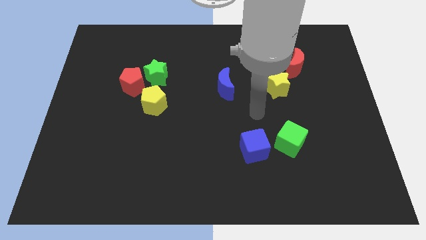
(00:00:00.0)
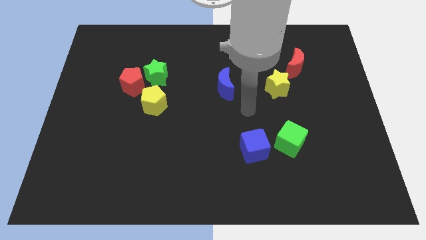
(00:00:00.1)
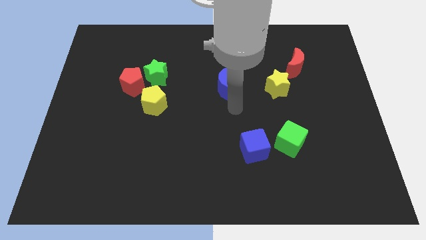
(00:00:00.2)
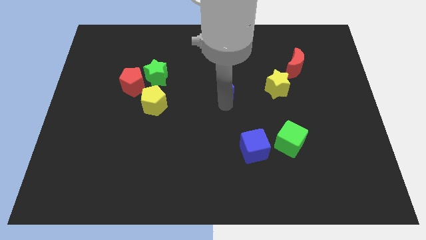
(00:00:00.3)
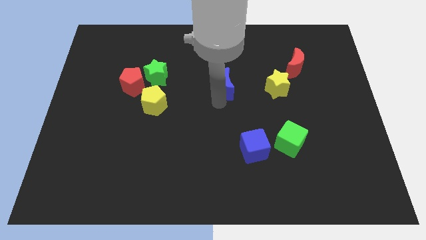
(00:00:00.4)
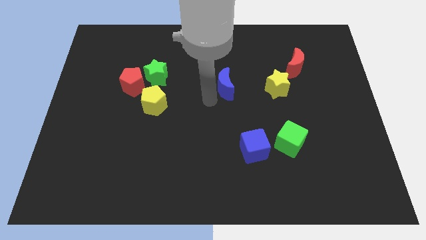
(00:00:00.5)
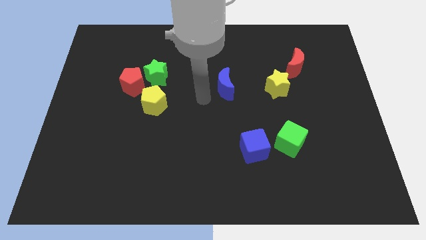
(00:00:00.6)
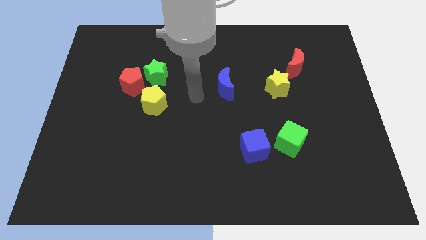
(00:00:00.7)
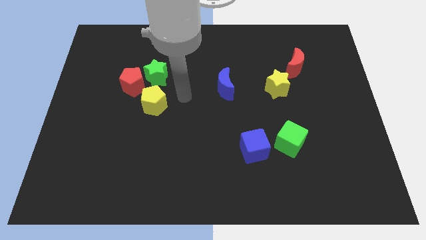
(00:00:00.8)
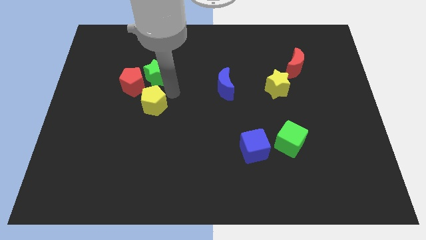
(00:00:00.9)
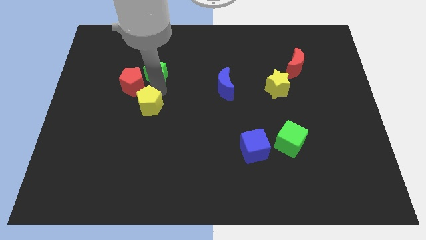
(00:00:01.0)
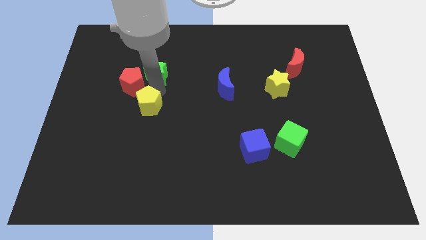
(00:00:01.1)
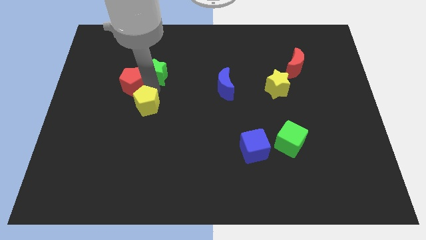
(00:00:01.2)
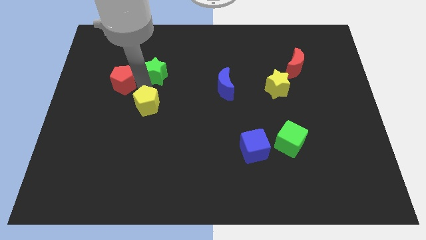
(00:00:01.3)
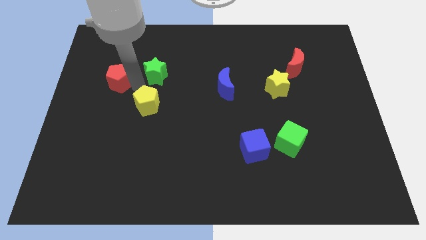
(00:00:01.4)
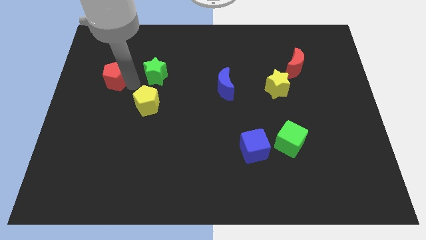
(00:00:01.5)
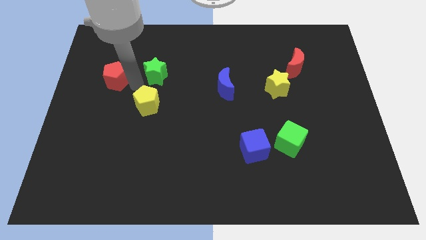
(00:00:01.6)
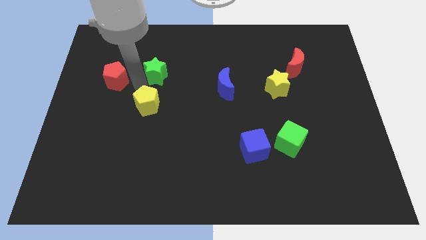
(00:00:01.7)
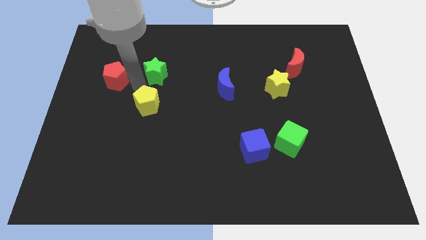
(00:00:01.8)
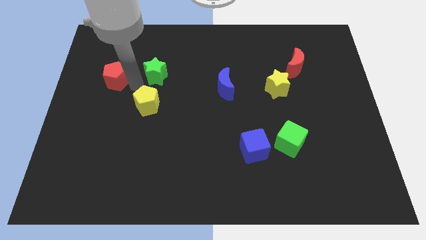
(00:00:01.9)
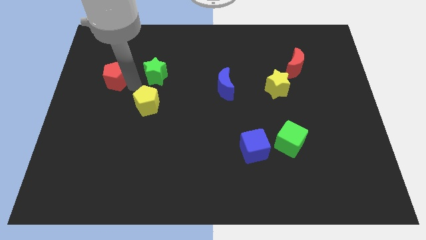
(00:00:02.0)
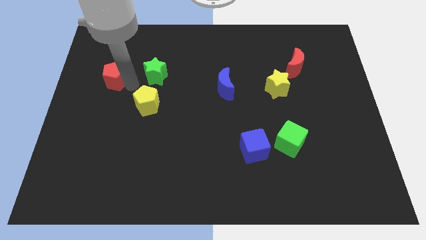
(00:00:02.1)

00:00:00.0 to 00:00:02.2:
pull the red pentagon apart from the green star and yellow pentagon

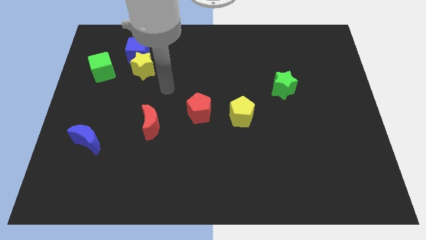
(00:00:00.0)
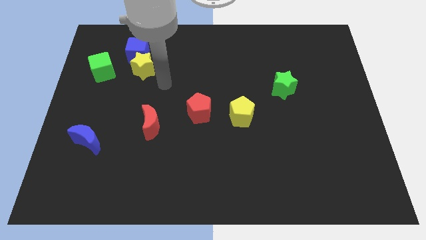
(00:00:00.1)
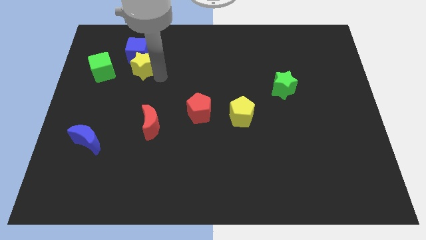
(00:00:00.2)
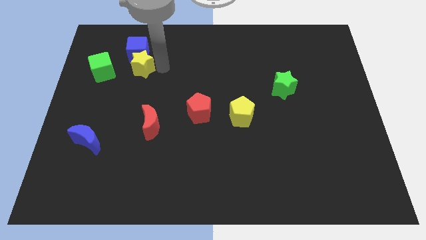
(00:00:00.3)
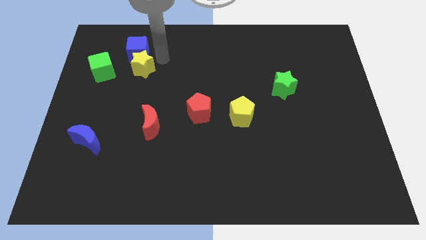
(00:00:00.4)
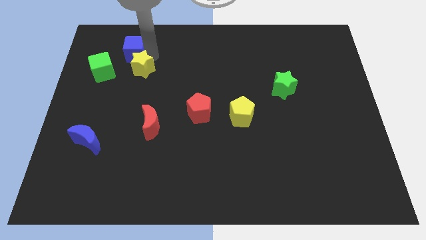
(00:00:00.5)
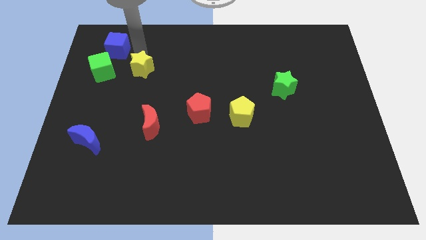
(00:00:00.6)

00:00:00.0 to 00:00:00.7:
separate the yellow star from the blue cube

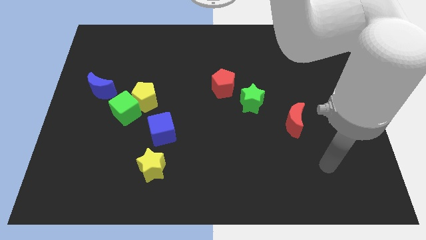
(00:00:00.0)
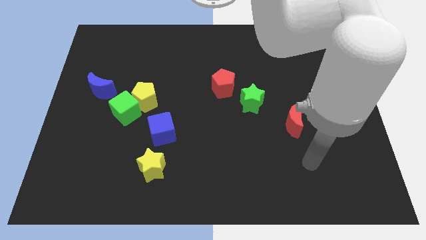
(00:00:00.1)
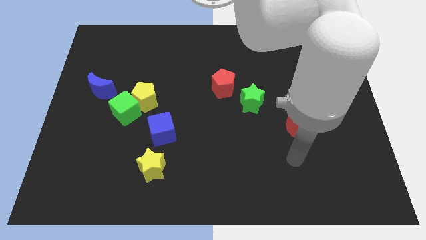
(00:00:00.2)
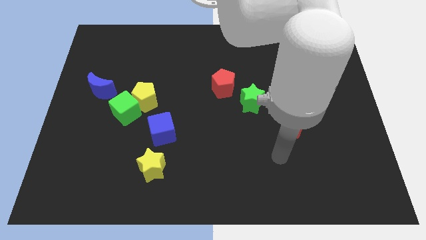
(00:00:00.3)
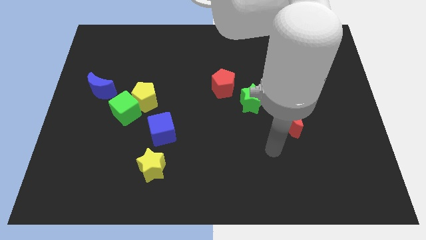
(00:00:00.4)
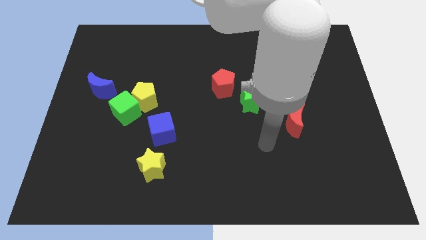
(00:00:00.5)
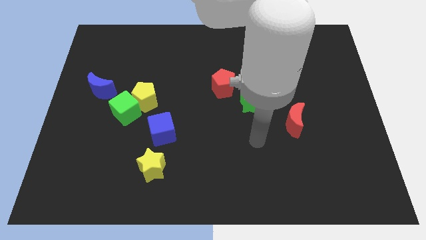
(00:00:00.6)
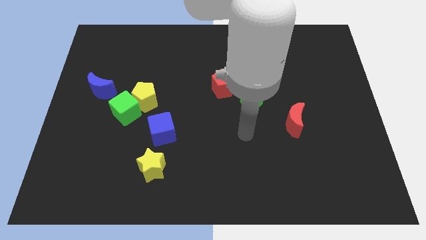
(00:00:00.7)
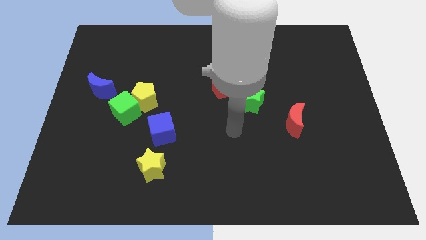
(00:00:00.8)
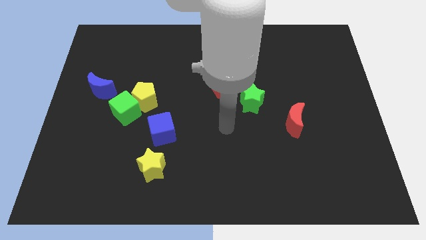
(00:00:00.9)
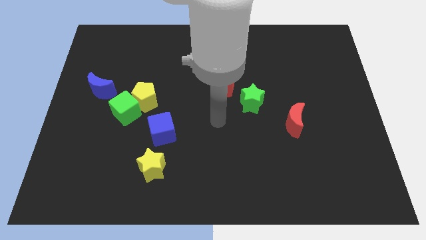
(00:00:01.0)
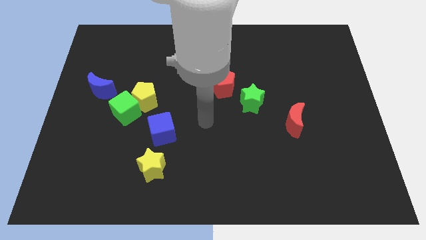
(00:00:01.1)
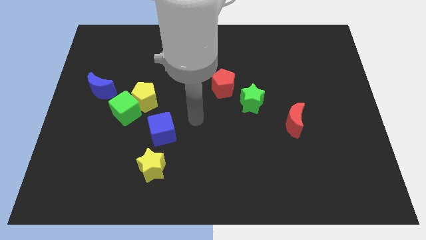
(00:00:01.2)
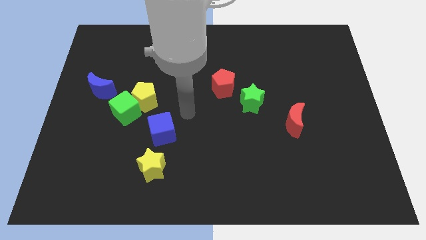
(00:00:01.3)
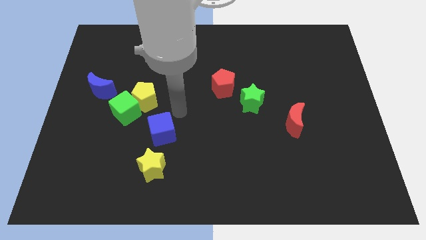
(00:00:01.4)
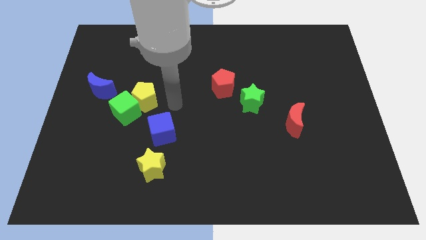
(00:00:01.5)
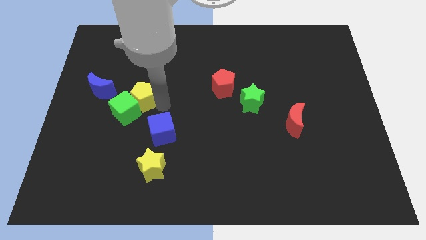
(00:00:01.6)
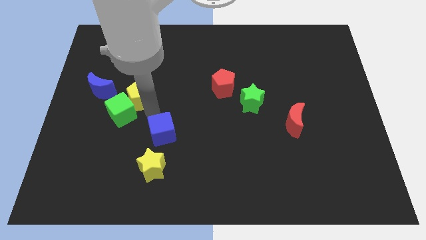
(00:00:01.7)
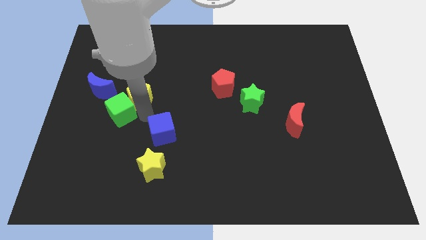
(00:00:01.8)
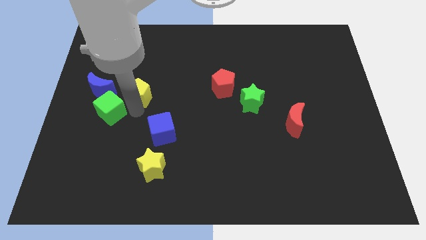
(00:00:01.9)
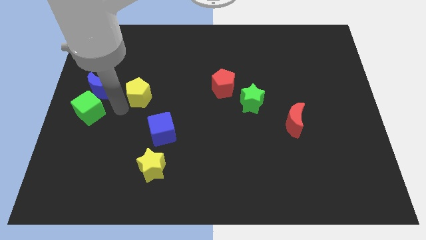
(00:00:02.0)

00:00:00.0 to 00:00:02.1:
separate the yellow pentagon from the green cube

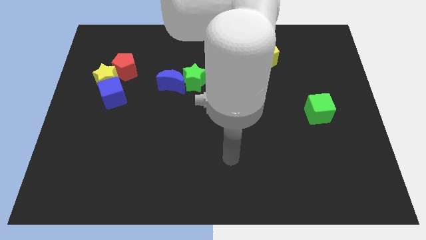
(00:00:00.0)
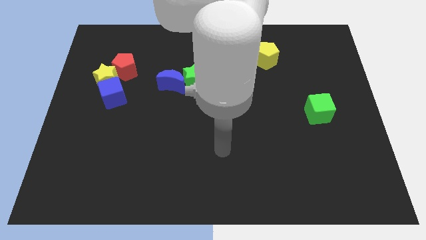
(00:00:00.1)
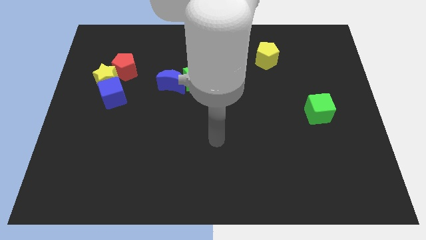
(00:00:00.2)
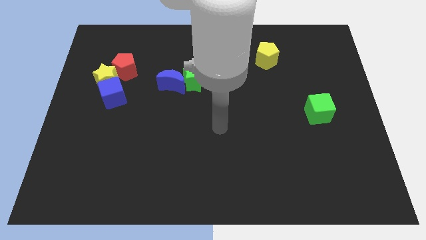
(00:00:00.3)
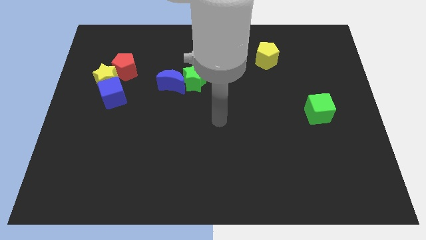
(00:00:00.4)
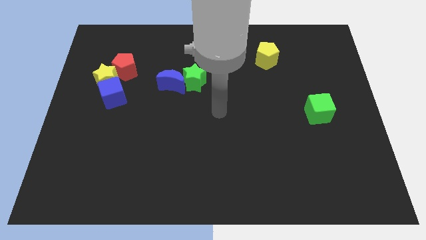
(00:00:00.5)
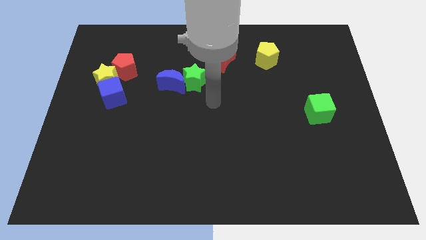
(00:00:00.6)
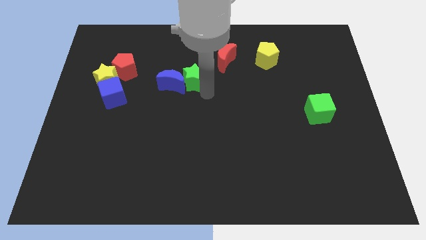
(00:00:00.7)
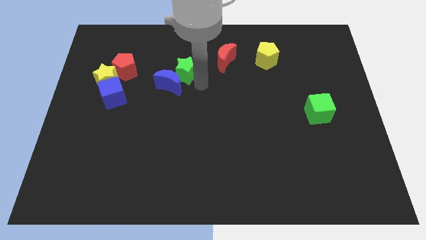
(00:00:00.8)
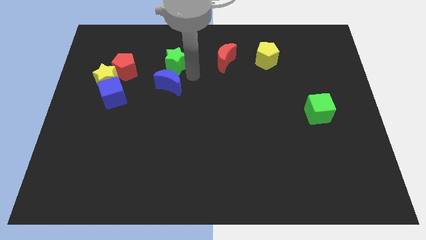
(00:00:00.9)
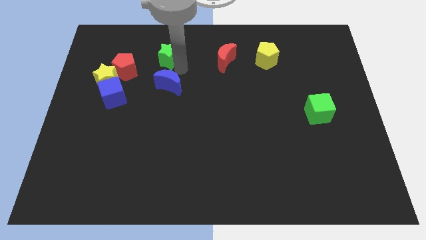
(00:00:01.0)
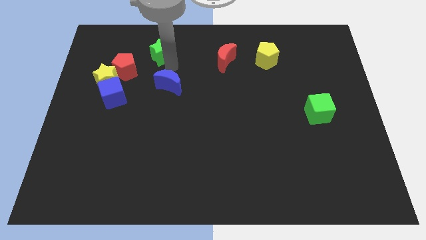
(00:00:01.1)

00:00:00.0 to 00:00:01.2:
move the blue moon away from the green star

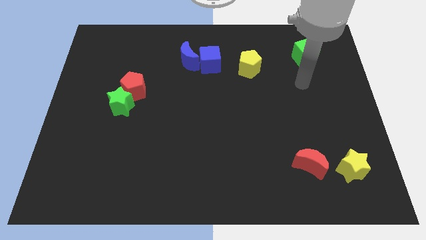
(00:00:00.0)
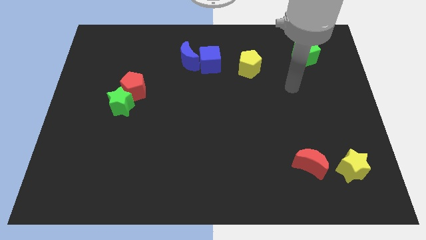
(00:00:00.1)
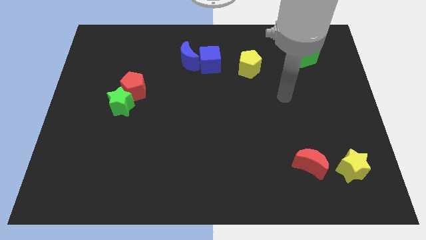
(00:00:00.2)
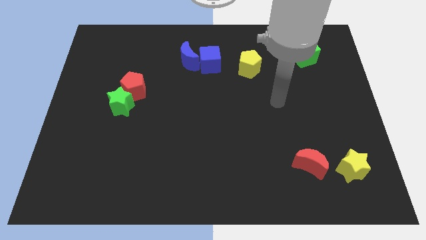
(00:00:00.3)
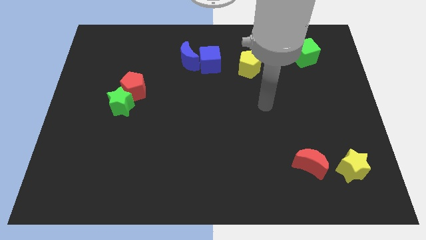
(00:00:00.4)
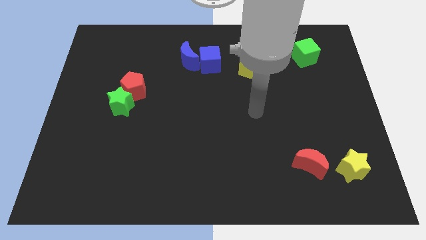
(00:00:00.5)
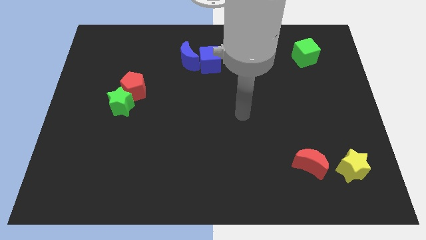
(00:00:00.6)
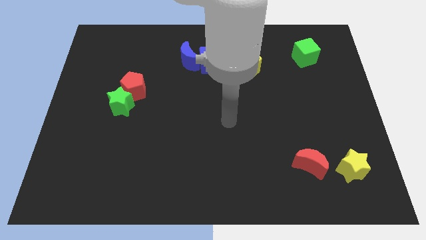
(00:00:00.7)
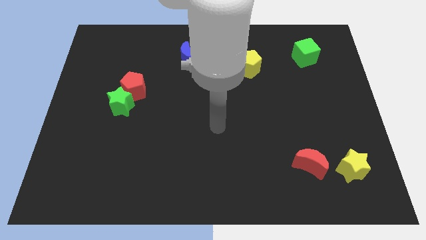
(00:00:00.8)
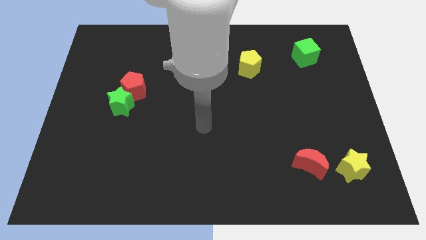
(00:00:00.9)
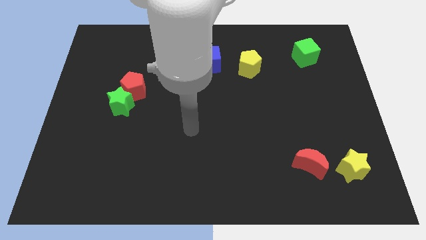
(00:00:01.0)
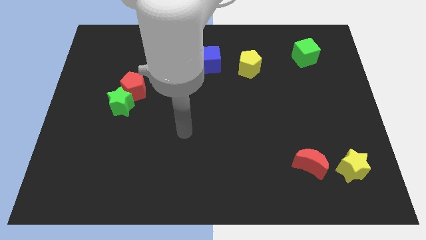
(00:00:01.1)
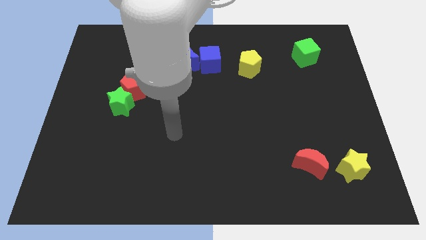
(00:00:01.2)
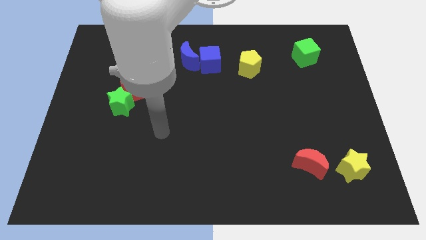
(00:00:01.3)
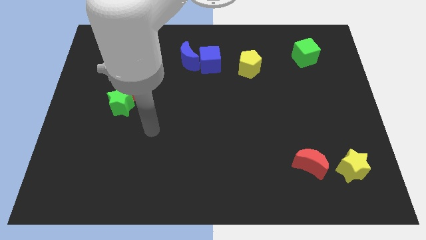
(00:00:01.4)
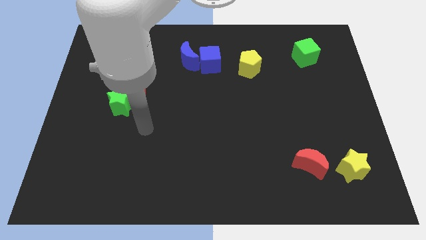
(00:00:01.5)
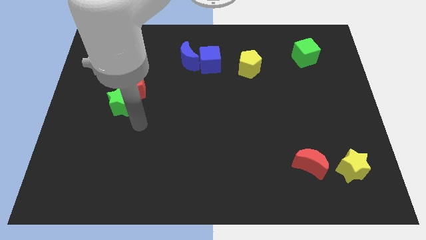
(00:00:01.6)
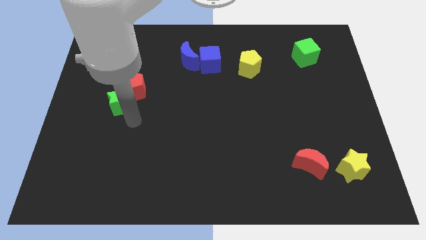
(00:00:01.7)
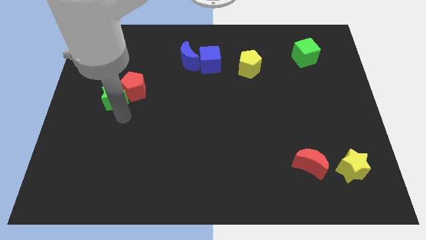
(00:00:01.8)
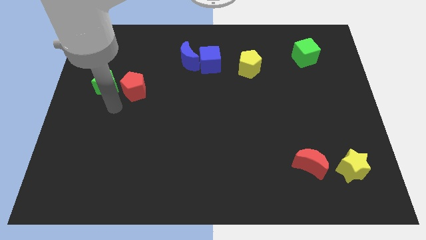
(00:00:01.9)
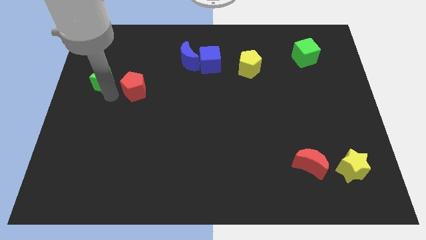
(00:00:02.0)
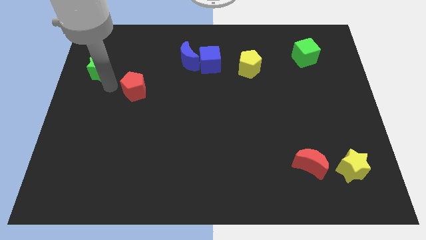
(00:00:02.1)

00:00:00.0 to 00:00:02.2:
separate the red pentagon from the green star

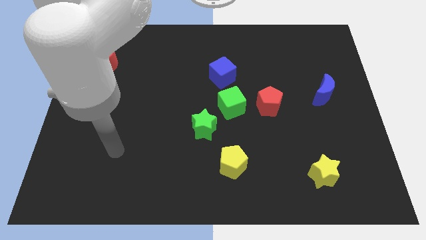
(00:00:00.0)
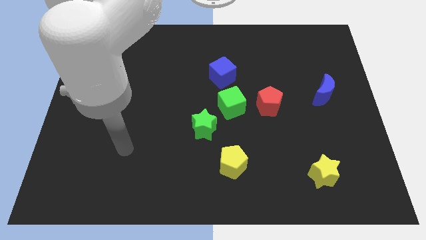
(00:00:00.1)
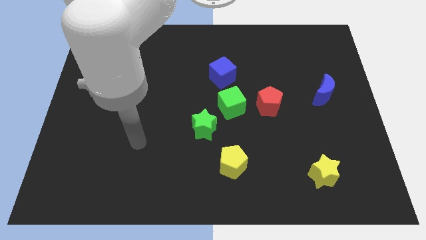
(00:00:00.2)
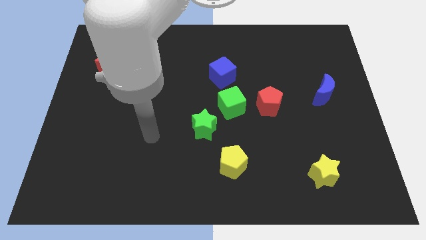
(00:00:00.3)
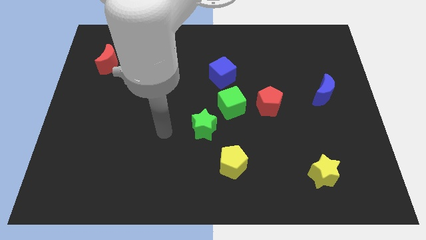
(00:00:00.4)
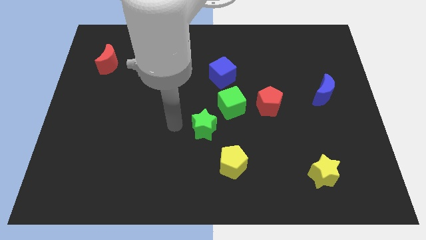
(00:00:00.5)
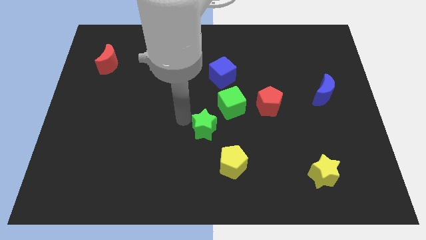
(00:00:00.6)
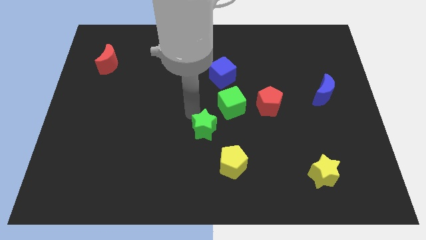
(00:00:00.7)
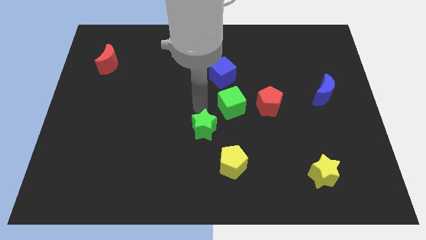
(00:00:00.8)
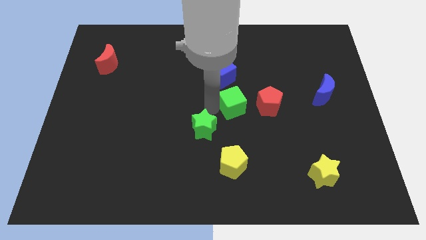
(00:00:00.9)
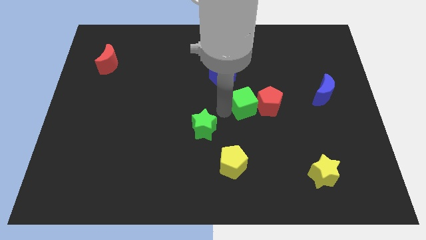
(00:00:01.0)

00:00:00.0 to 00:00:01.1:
separate the green star from the green cube
